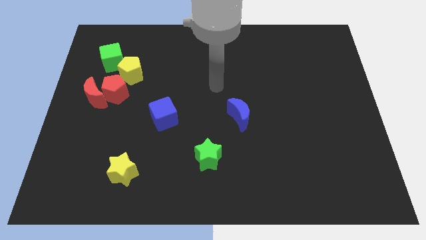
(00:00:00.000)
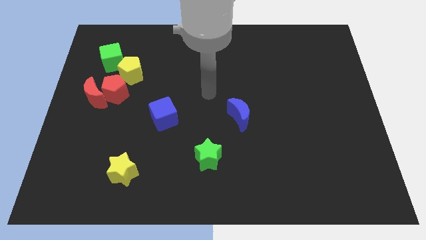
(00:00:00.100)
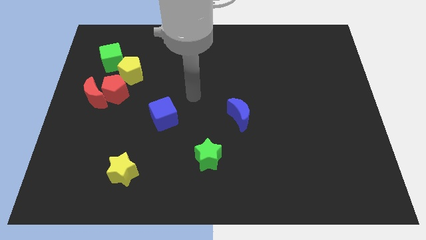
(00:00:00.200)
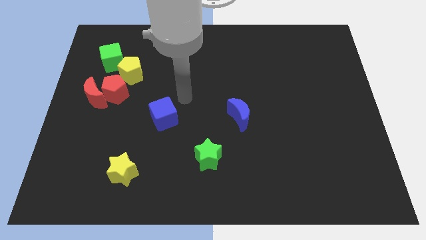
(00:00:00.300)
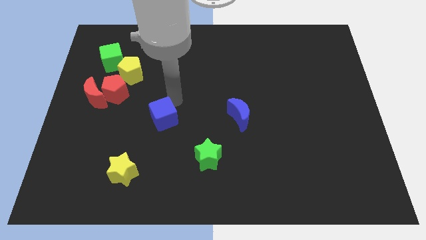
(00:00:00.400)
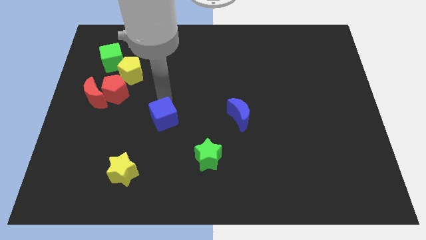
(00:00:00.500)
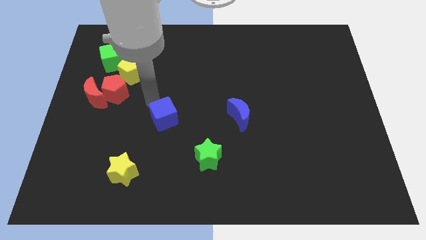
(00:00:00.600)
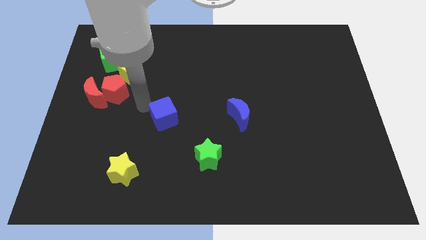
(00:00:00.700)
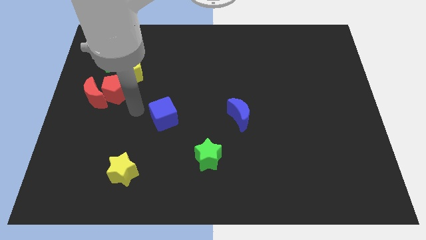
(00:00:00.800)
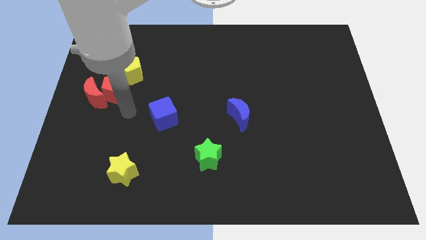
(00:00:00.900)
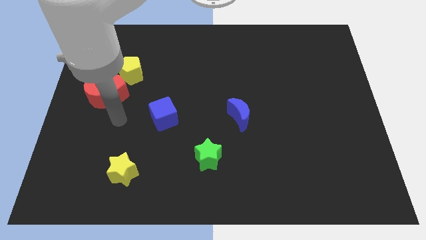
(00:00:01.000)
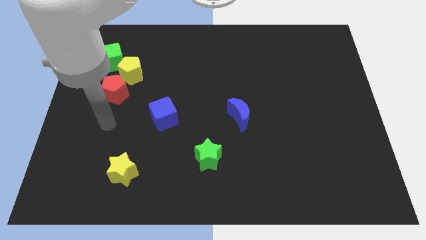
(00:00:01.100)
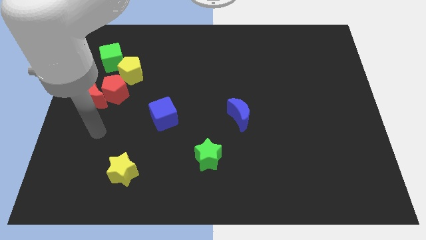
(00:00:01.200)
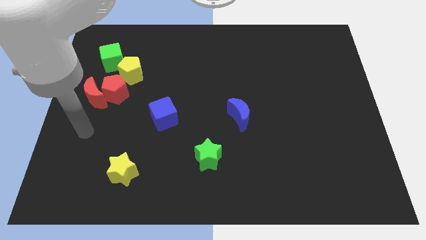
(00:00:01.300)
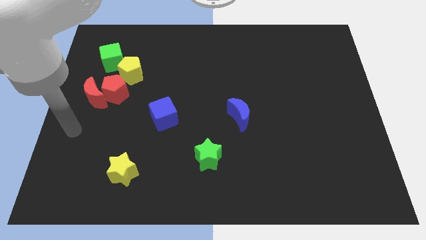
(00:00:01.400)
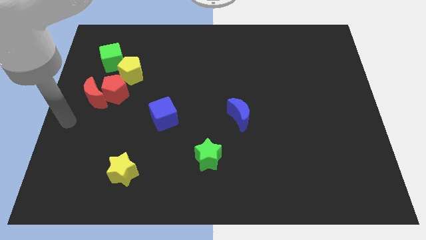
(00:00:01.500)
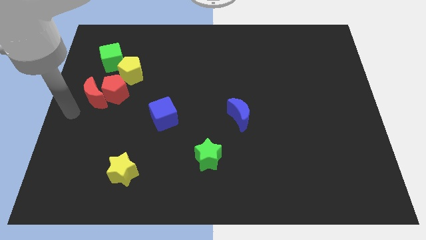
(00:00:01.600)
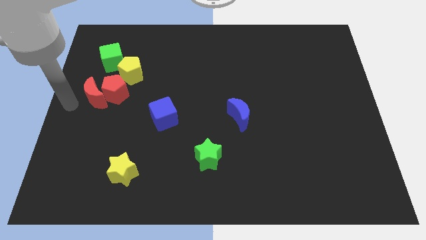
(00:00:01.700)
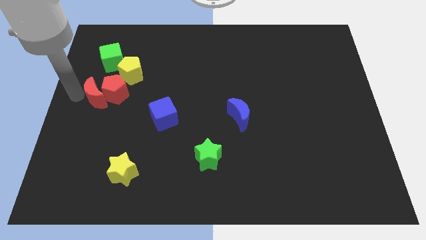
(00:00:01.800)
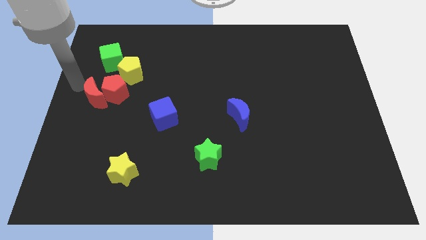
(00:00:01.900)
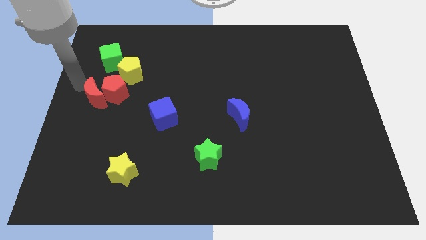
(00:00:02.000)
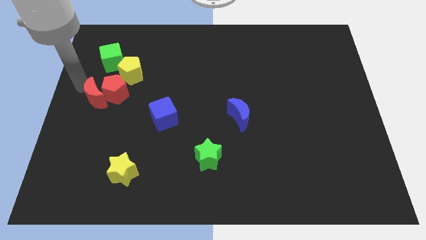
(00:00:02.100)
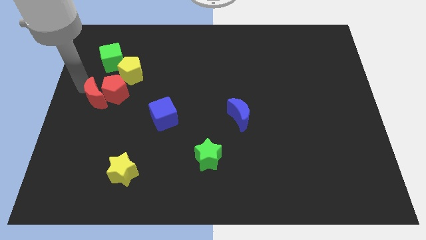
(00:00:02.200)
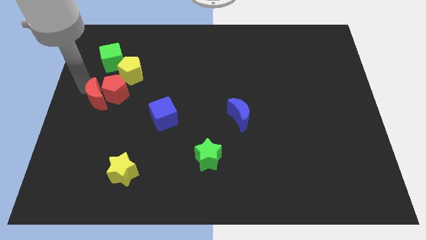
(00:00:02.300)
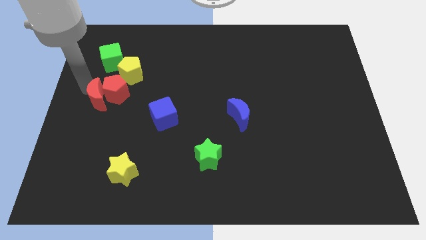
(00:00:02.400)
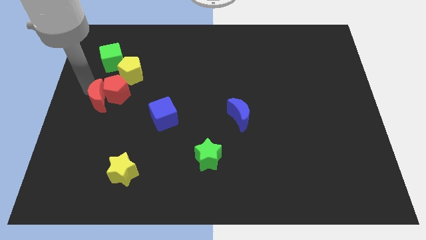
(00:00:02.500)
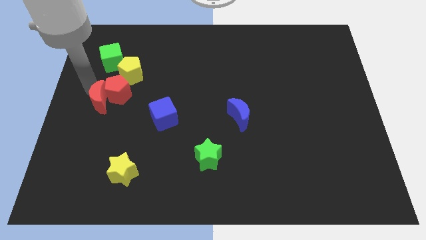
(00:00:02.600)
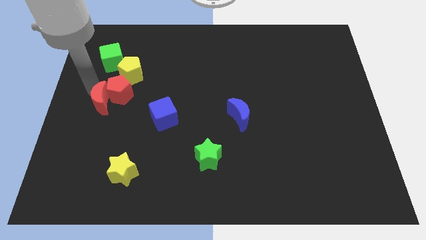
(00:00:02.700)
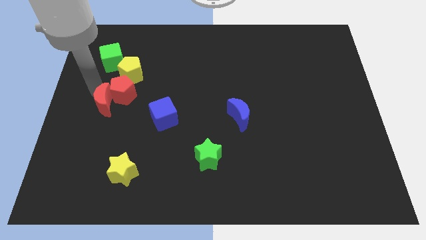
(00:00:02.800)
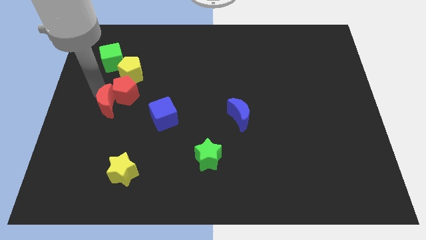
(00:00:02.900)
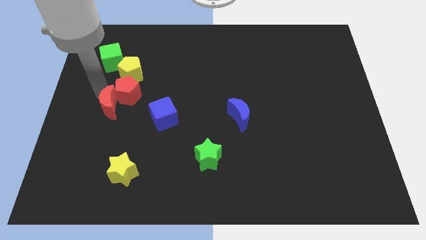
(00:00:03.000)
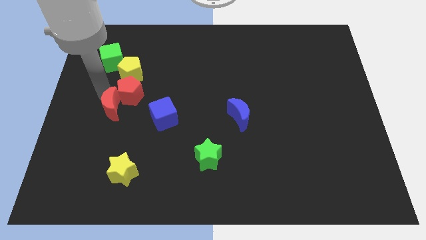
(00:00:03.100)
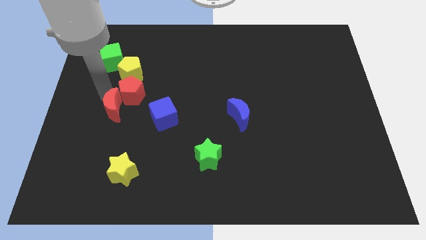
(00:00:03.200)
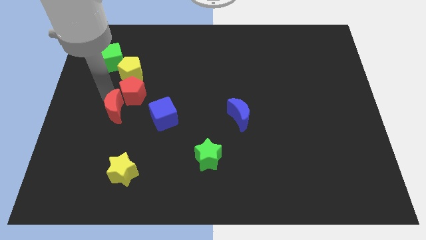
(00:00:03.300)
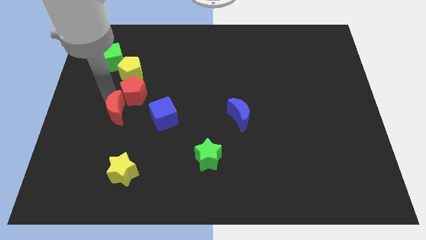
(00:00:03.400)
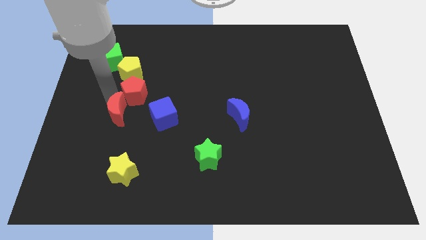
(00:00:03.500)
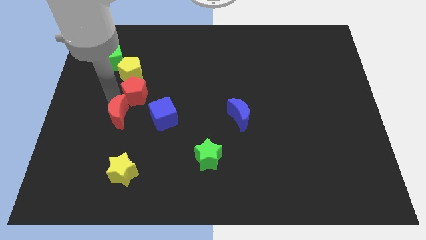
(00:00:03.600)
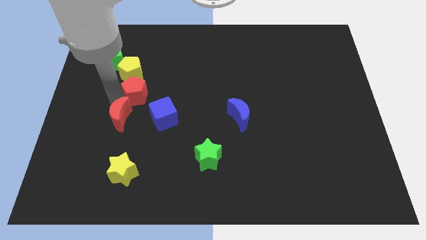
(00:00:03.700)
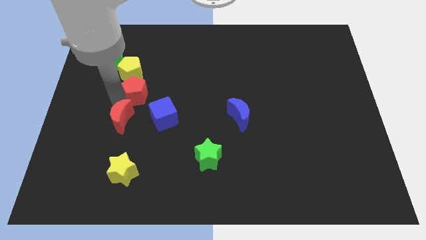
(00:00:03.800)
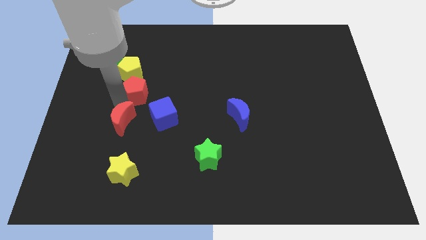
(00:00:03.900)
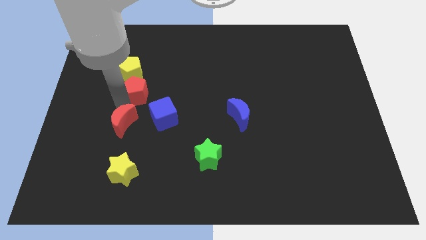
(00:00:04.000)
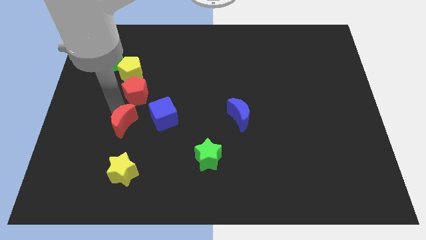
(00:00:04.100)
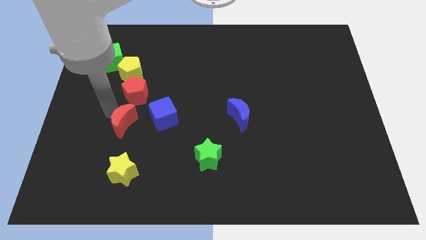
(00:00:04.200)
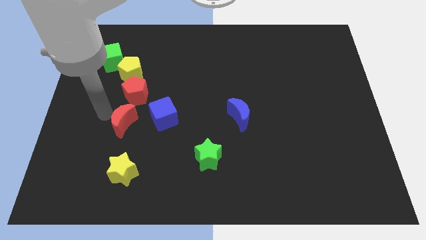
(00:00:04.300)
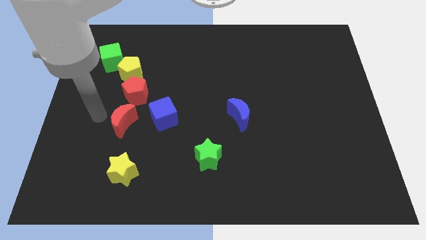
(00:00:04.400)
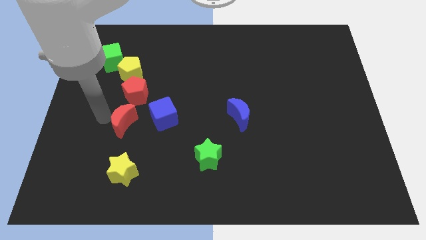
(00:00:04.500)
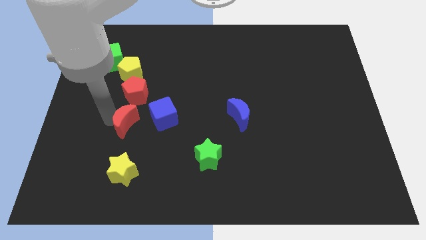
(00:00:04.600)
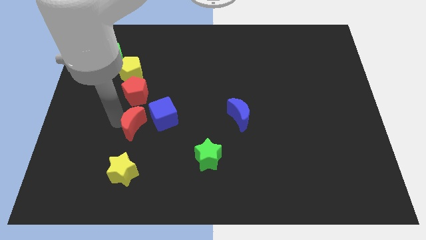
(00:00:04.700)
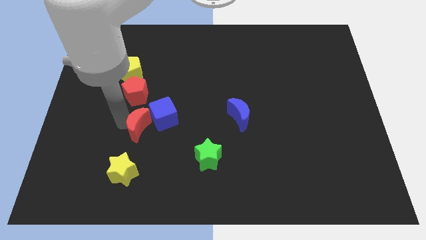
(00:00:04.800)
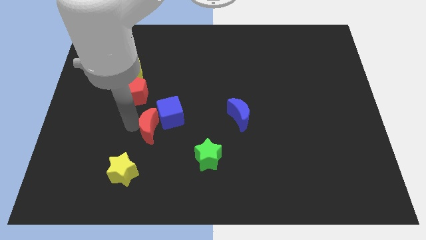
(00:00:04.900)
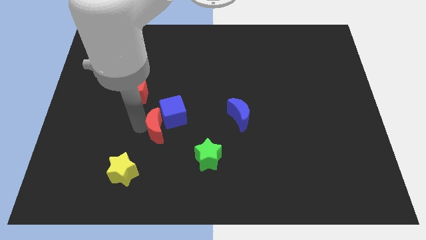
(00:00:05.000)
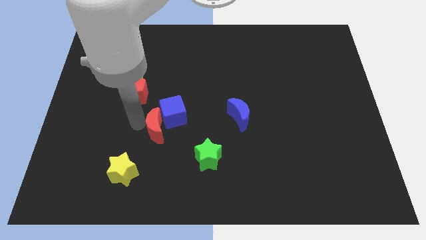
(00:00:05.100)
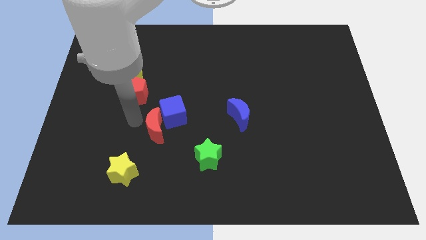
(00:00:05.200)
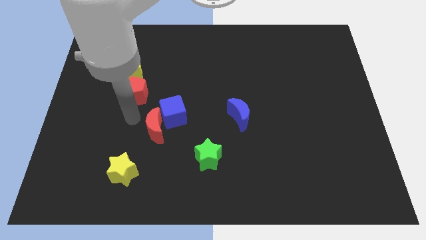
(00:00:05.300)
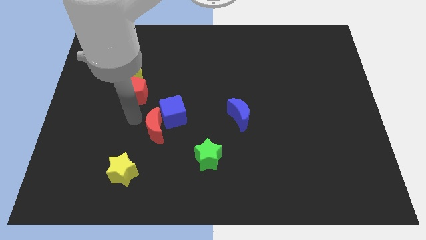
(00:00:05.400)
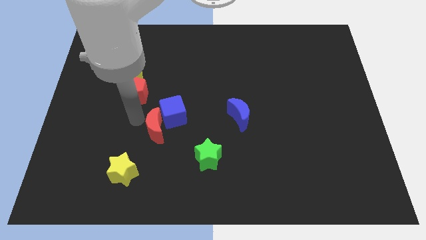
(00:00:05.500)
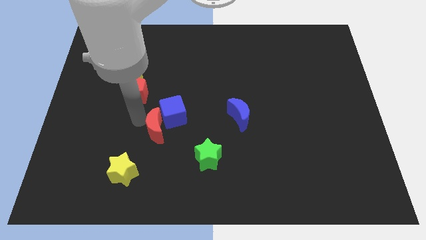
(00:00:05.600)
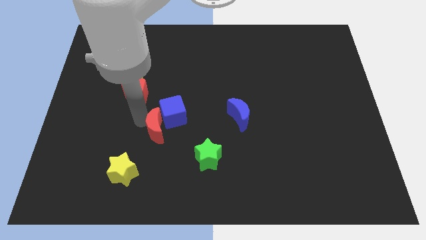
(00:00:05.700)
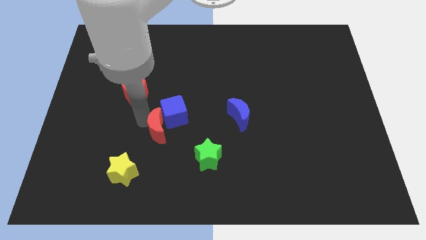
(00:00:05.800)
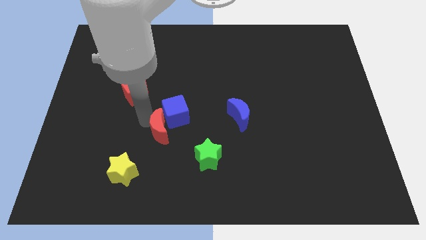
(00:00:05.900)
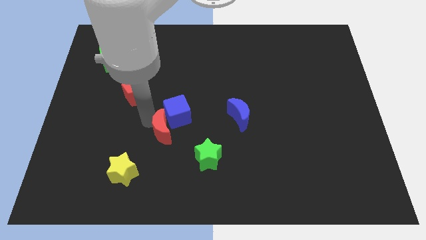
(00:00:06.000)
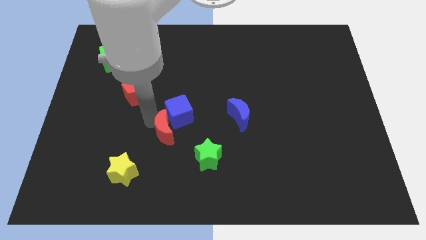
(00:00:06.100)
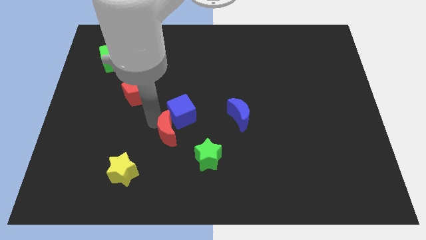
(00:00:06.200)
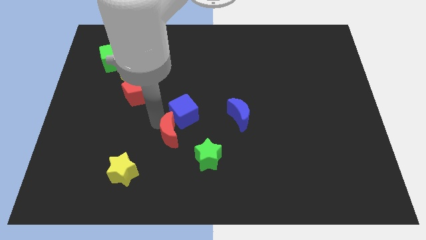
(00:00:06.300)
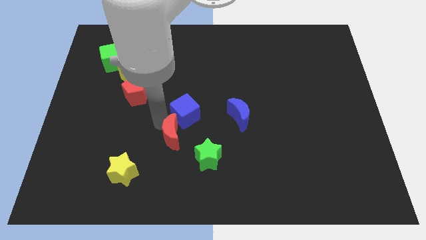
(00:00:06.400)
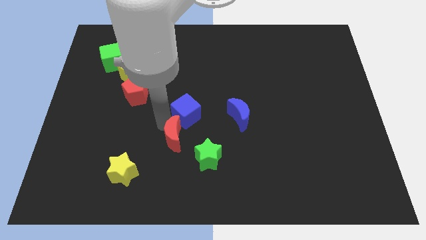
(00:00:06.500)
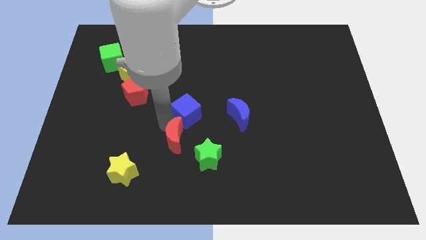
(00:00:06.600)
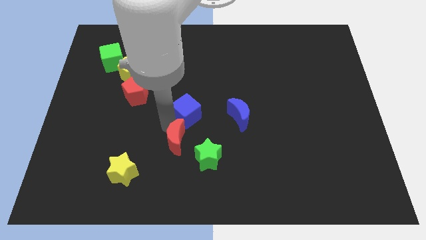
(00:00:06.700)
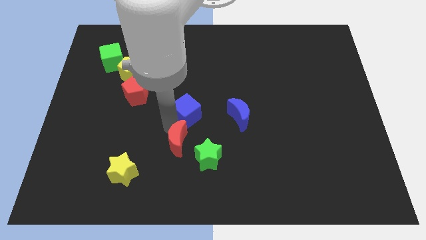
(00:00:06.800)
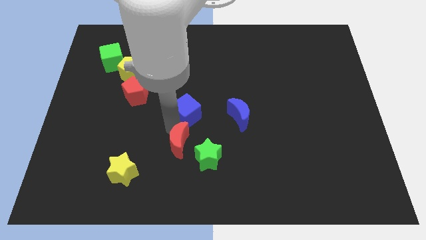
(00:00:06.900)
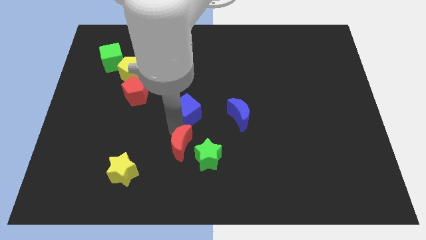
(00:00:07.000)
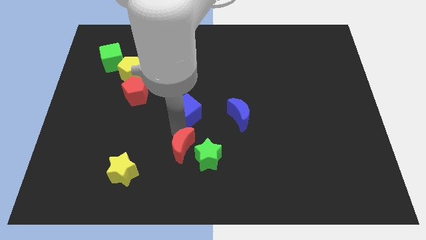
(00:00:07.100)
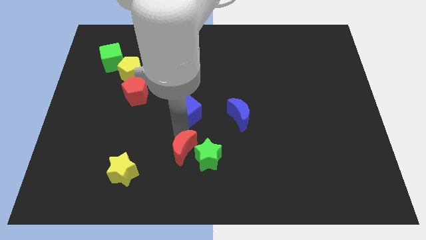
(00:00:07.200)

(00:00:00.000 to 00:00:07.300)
slide the red moon to the green star
